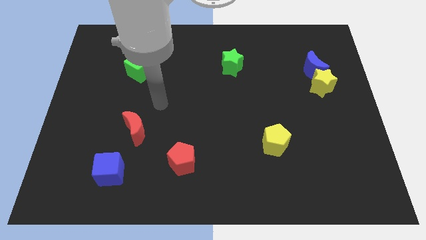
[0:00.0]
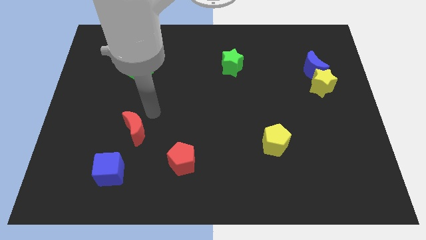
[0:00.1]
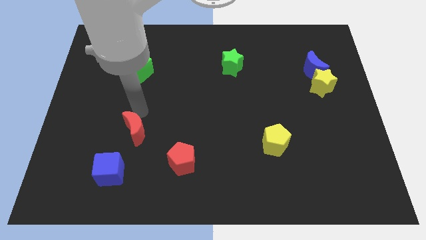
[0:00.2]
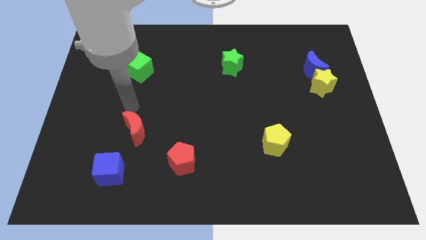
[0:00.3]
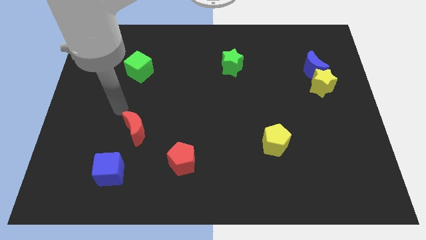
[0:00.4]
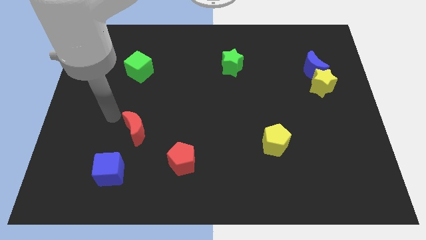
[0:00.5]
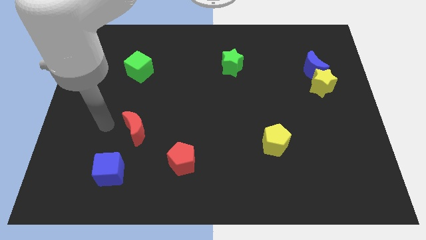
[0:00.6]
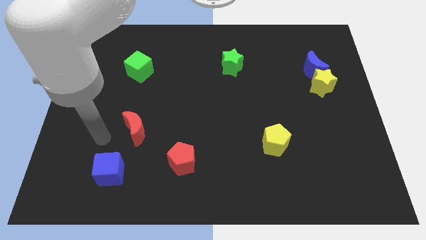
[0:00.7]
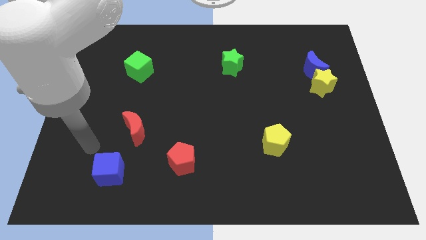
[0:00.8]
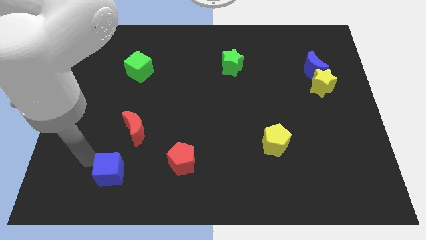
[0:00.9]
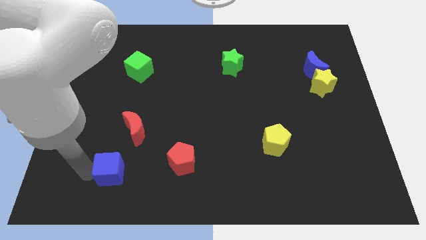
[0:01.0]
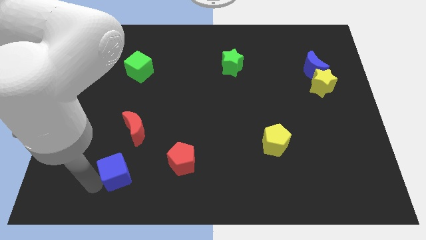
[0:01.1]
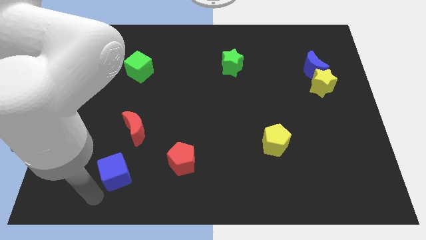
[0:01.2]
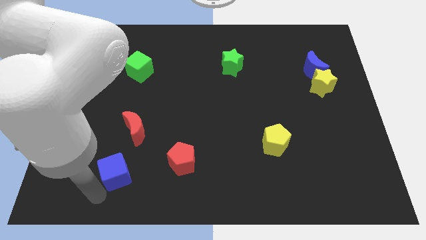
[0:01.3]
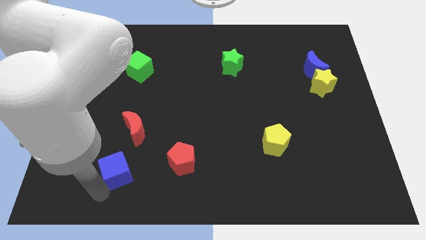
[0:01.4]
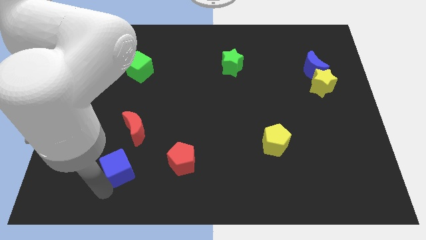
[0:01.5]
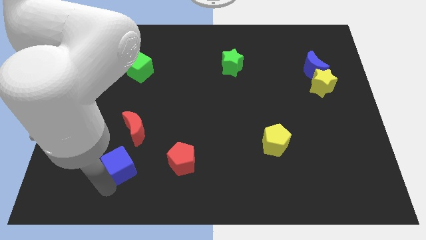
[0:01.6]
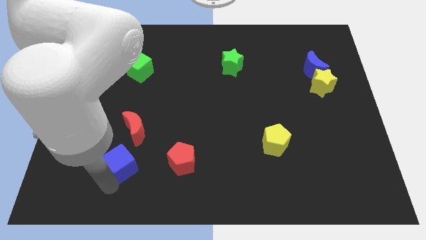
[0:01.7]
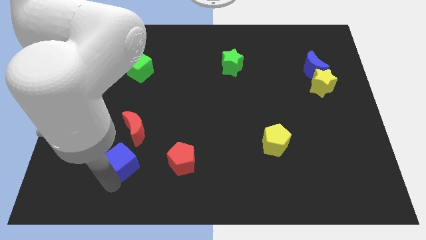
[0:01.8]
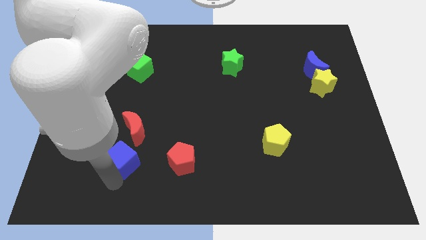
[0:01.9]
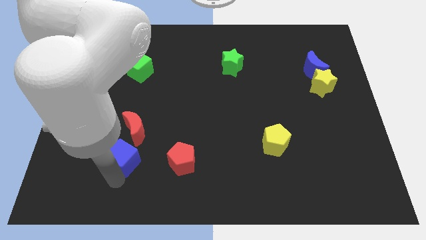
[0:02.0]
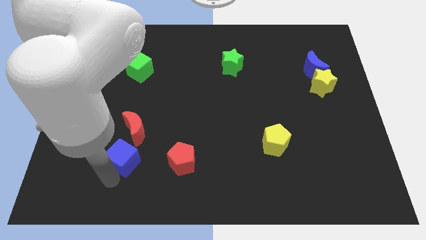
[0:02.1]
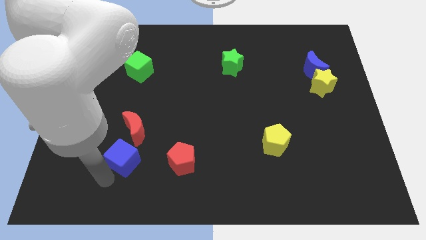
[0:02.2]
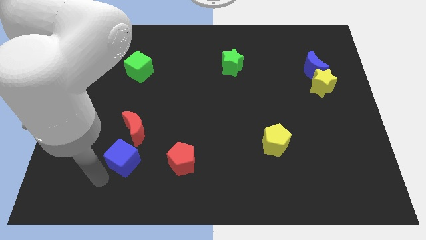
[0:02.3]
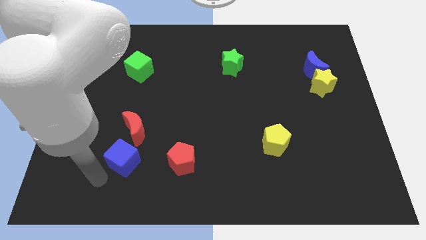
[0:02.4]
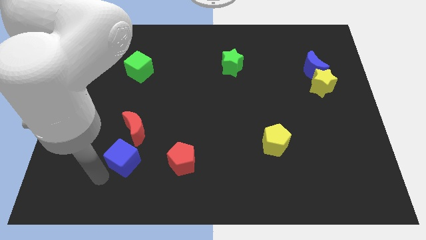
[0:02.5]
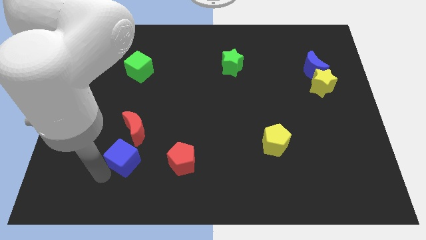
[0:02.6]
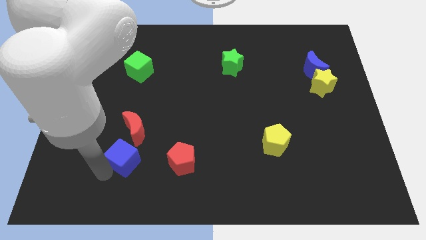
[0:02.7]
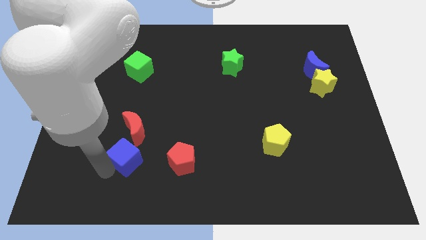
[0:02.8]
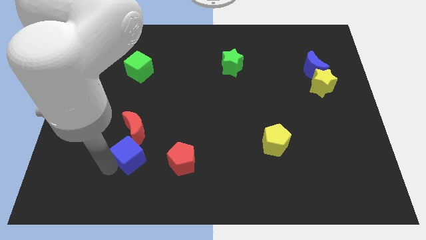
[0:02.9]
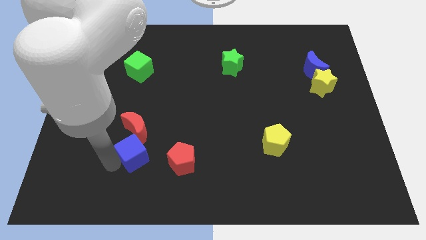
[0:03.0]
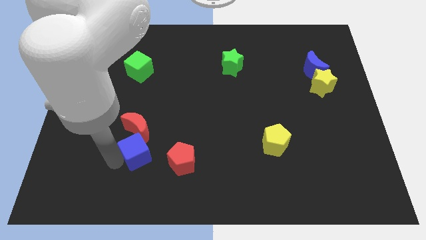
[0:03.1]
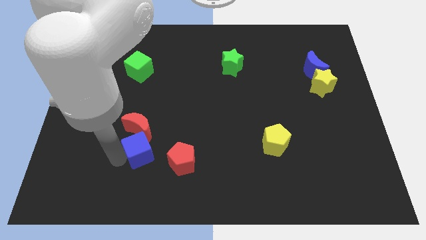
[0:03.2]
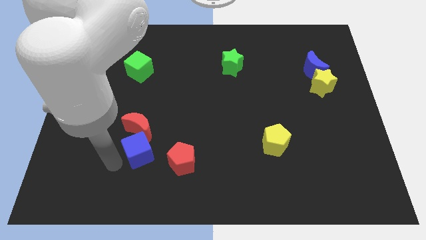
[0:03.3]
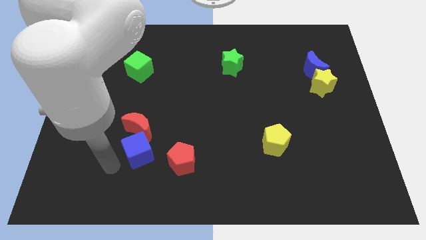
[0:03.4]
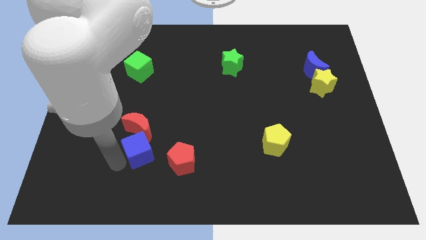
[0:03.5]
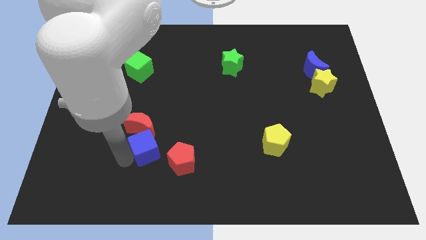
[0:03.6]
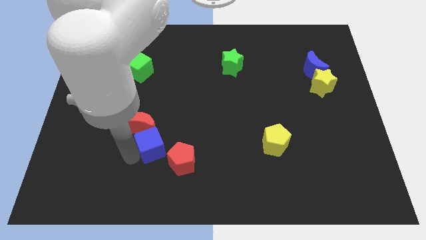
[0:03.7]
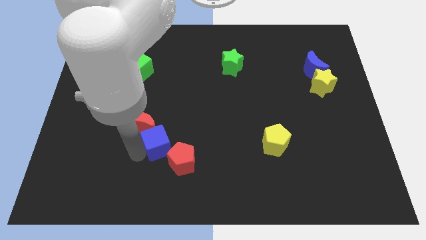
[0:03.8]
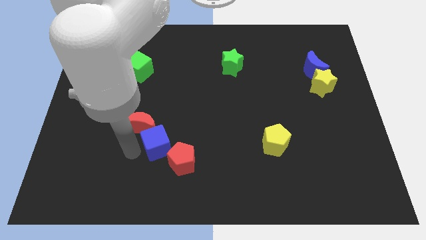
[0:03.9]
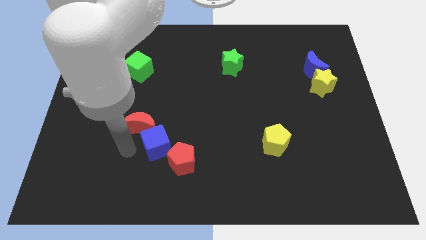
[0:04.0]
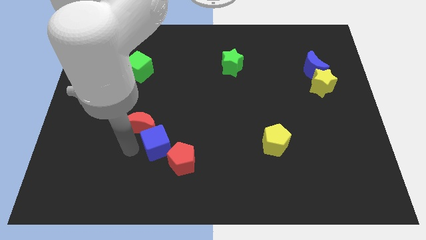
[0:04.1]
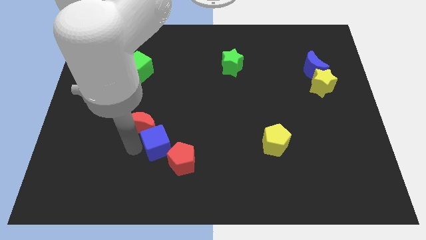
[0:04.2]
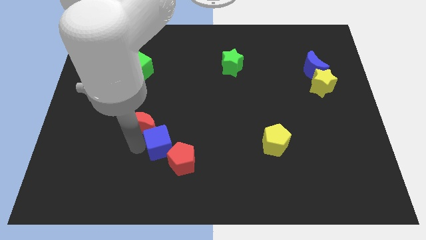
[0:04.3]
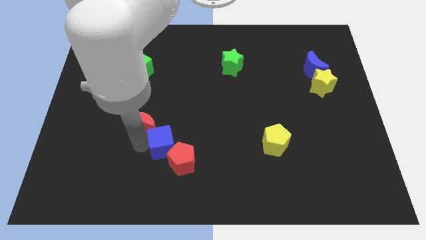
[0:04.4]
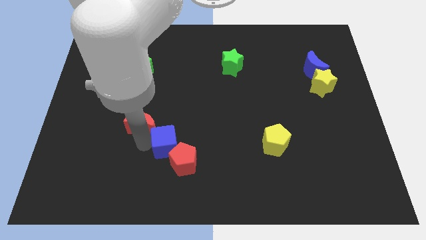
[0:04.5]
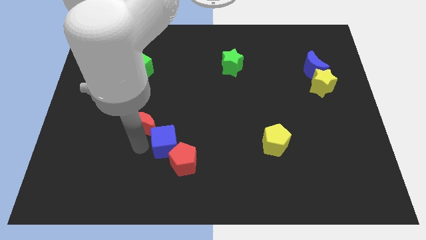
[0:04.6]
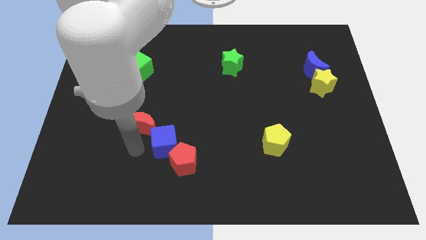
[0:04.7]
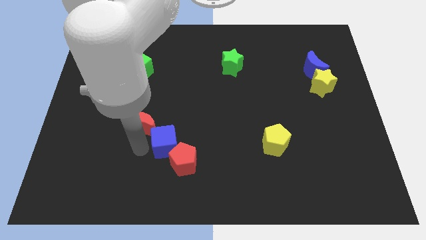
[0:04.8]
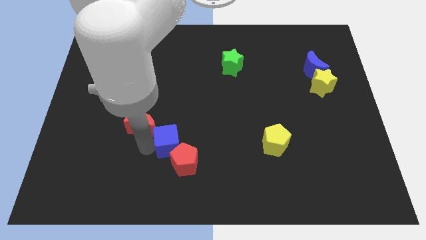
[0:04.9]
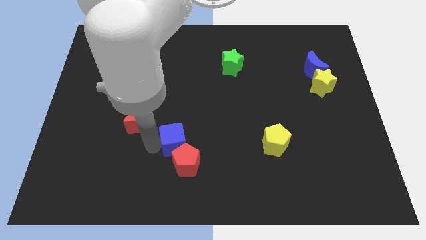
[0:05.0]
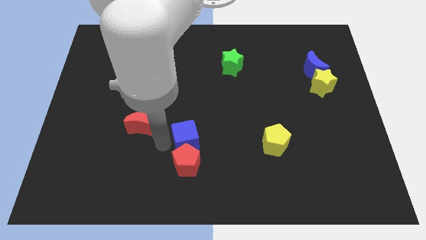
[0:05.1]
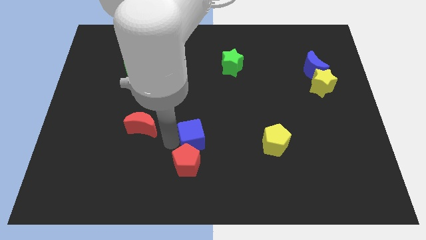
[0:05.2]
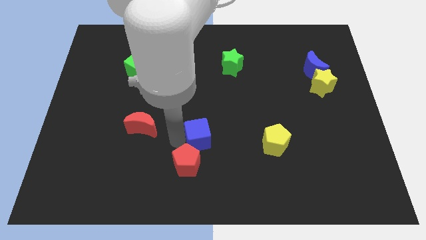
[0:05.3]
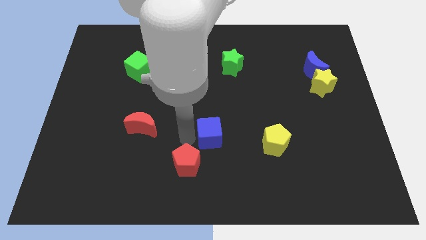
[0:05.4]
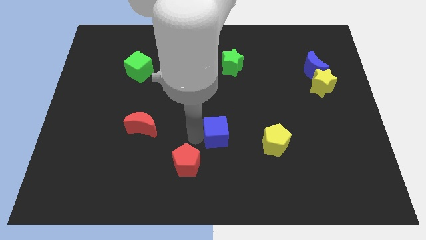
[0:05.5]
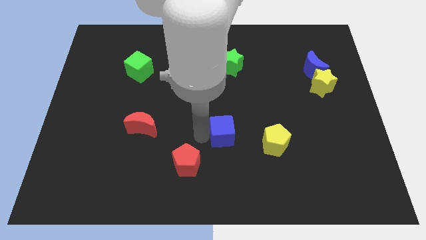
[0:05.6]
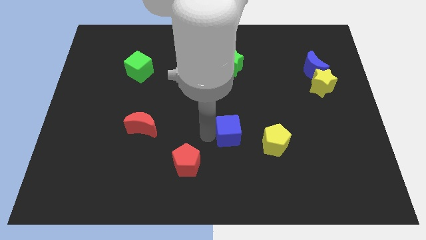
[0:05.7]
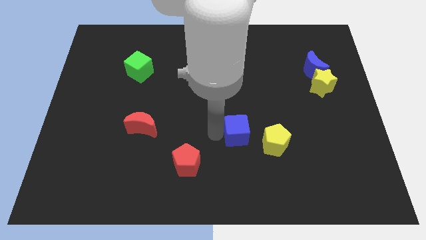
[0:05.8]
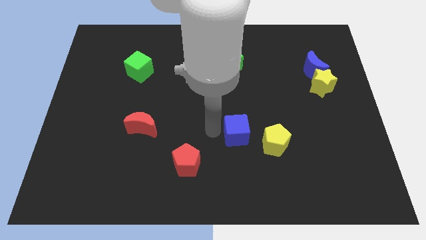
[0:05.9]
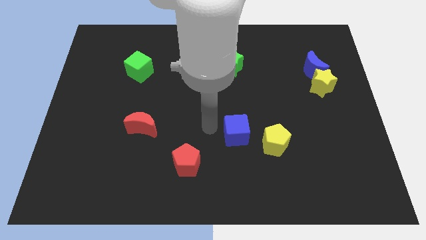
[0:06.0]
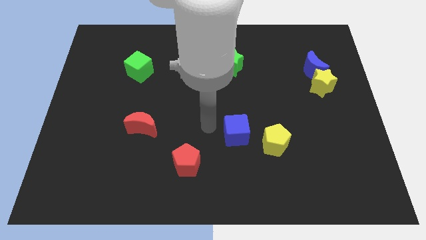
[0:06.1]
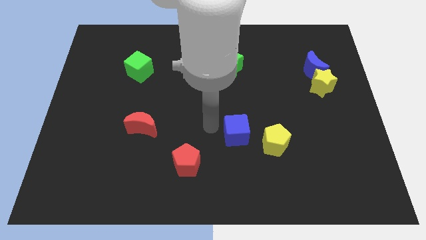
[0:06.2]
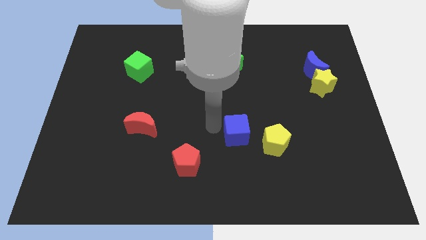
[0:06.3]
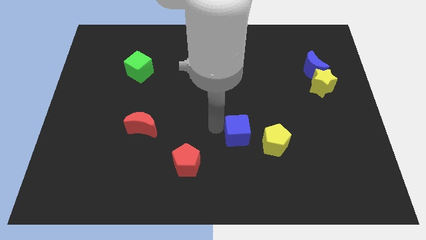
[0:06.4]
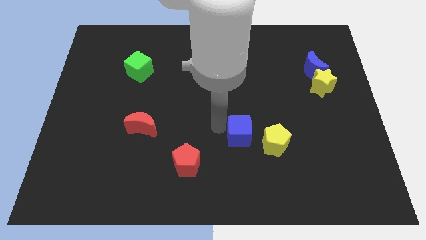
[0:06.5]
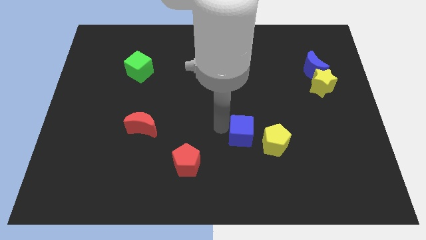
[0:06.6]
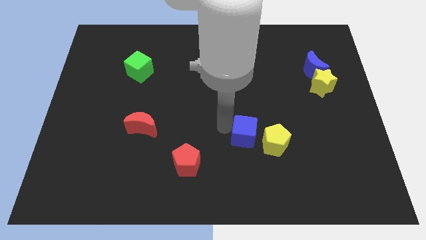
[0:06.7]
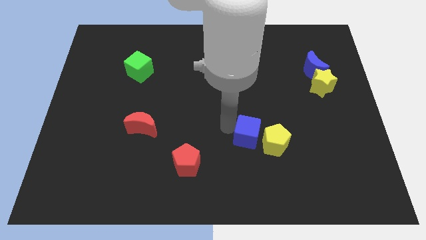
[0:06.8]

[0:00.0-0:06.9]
push the blue cube to the yellow pentagon
